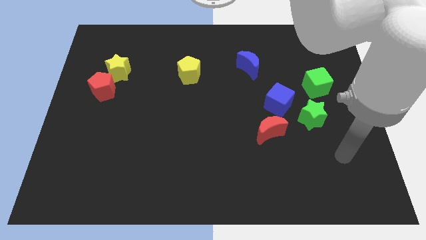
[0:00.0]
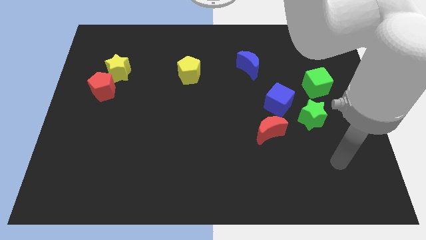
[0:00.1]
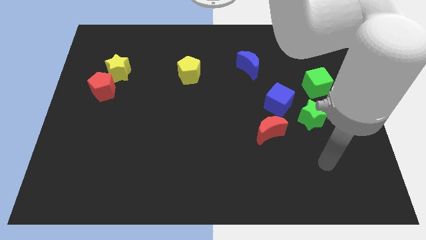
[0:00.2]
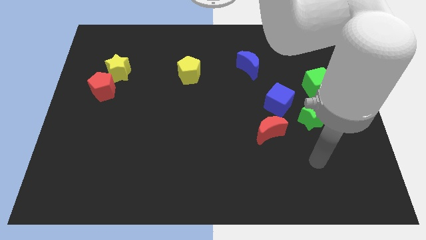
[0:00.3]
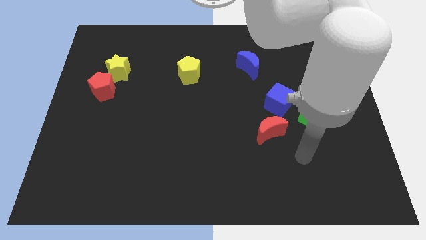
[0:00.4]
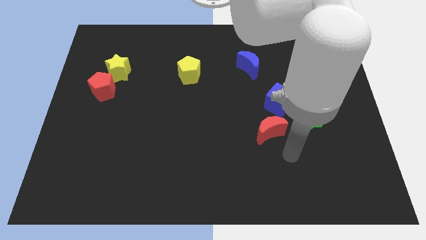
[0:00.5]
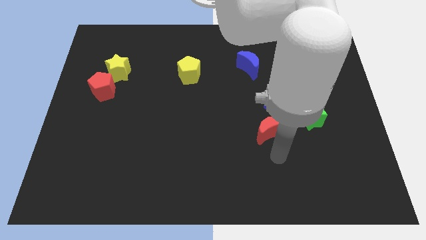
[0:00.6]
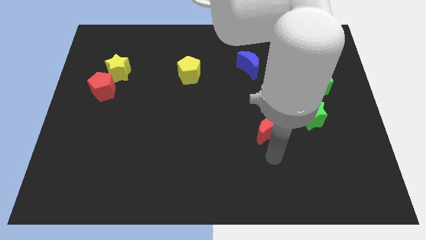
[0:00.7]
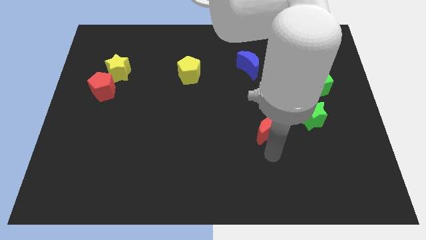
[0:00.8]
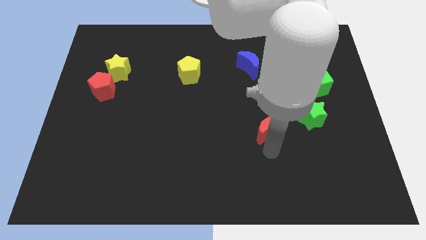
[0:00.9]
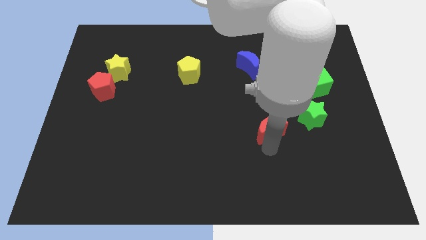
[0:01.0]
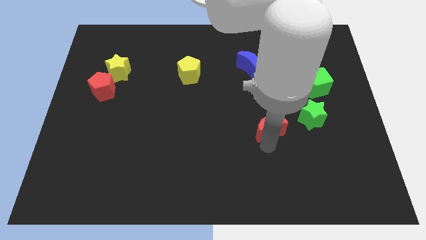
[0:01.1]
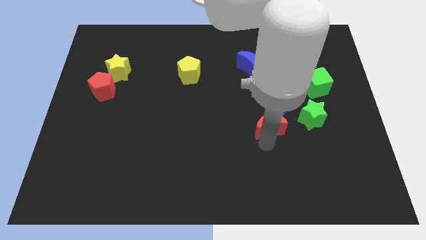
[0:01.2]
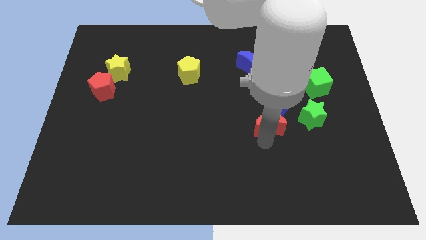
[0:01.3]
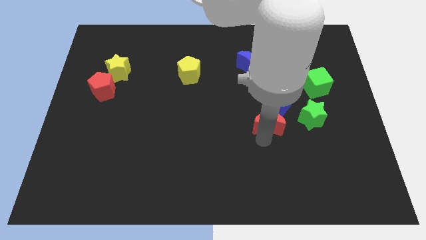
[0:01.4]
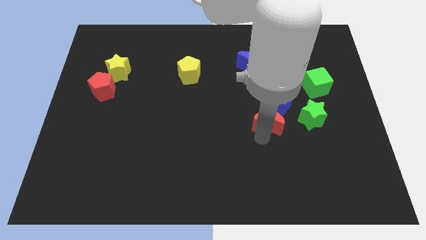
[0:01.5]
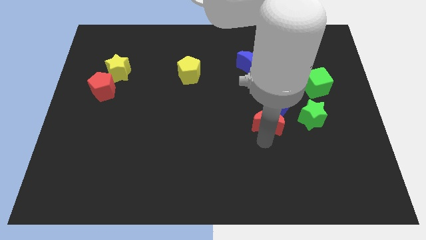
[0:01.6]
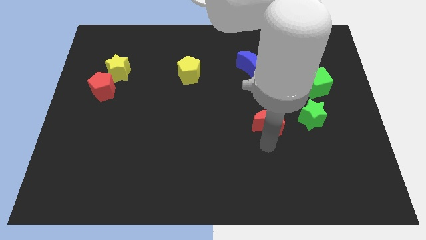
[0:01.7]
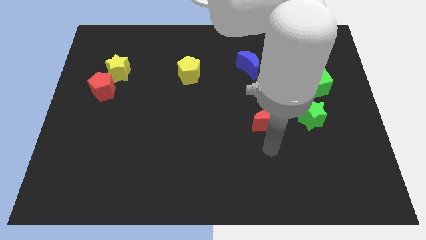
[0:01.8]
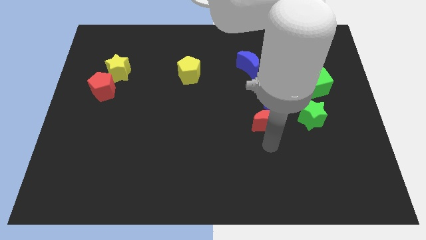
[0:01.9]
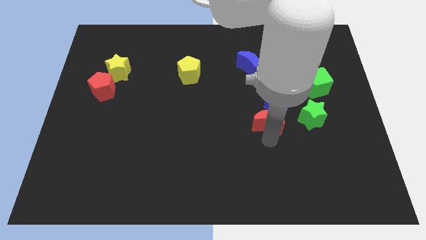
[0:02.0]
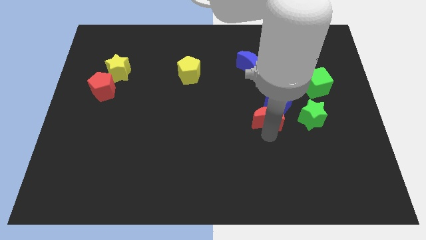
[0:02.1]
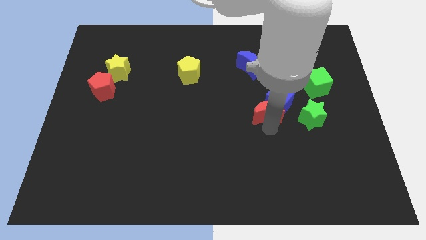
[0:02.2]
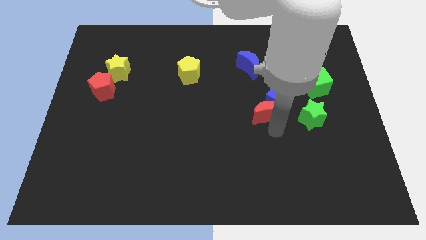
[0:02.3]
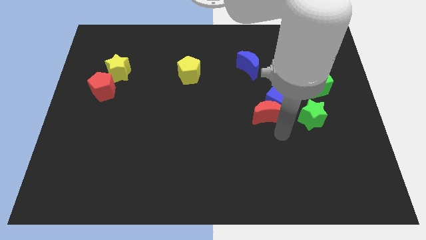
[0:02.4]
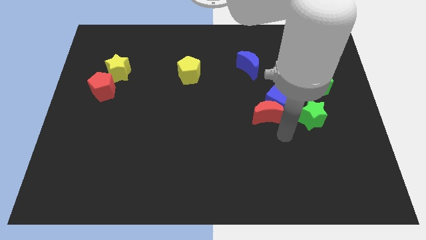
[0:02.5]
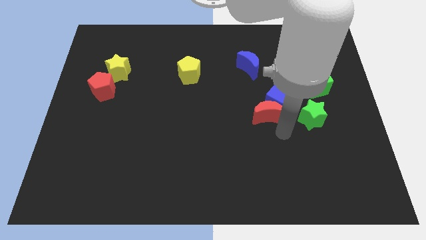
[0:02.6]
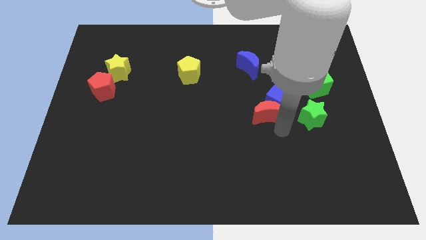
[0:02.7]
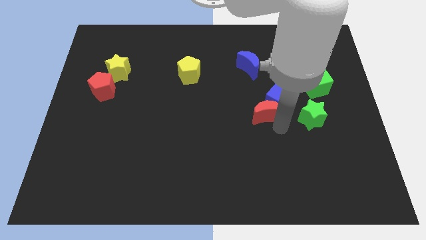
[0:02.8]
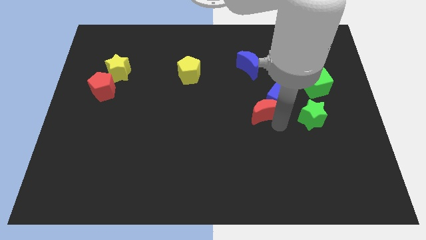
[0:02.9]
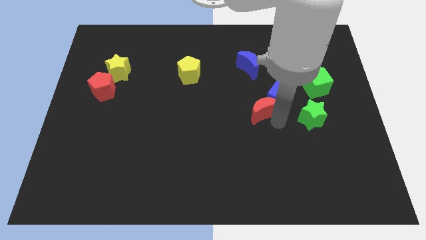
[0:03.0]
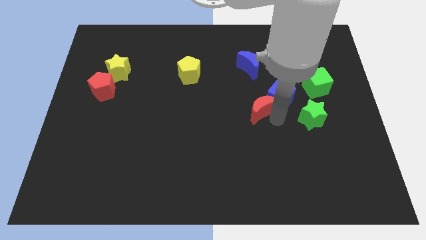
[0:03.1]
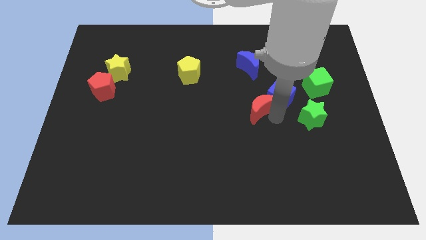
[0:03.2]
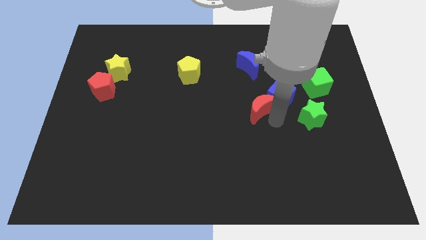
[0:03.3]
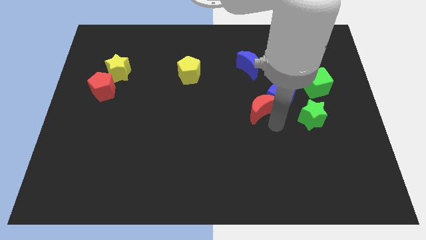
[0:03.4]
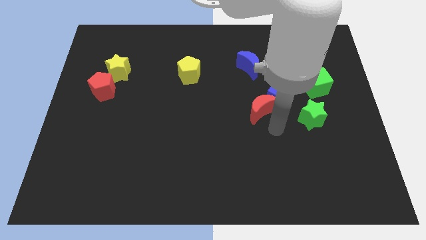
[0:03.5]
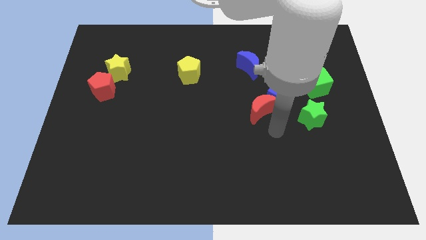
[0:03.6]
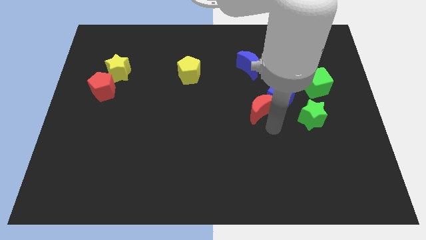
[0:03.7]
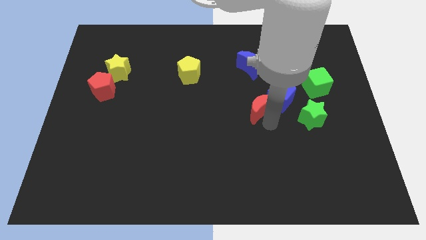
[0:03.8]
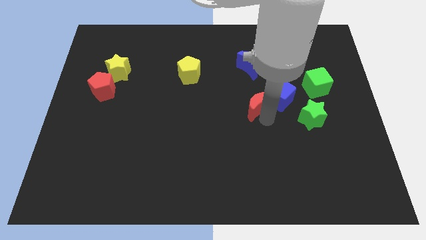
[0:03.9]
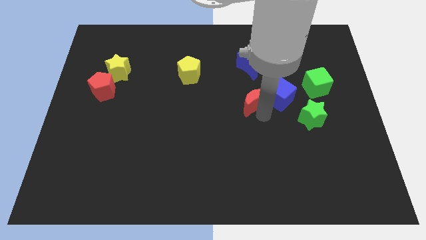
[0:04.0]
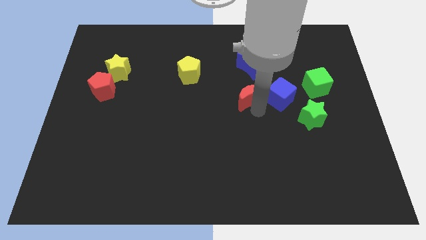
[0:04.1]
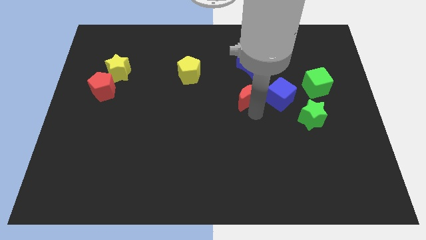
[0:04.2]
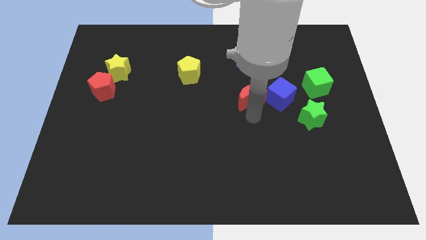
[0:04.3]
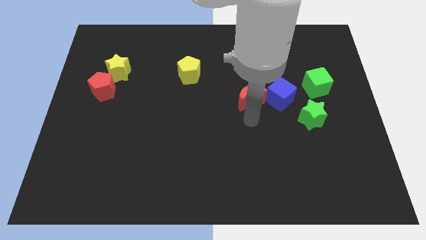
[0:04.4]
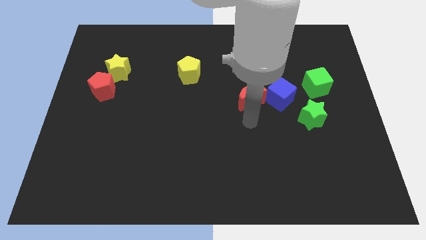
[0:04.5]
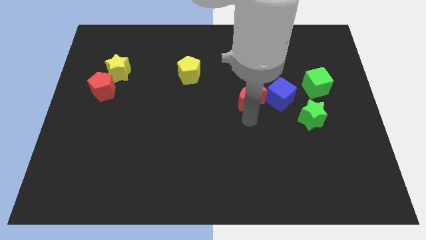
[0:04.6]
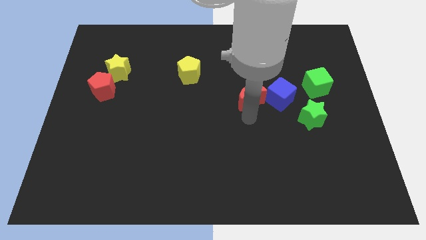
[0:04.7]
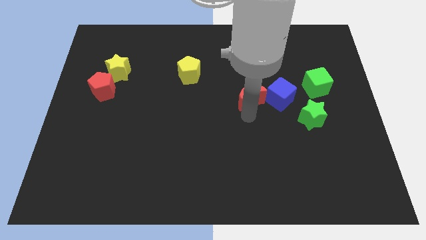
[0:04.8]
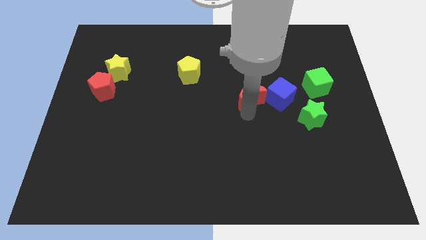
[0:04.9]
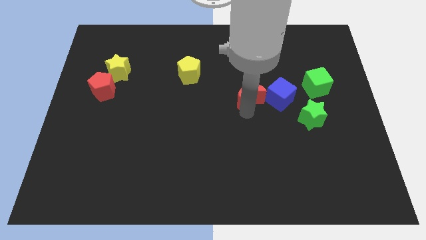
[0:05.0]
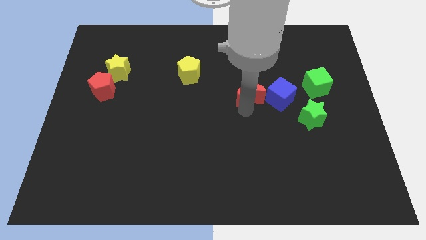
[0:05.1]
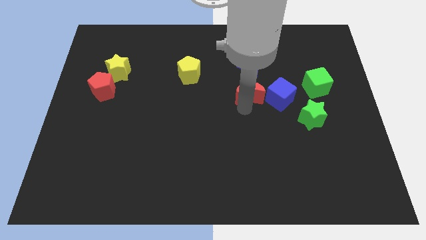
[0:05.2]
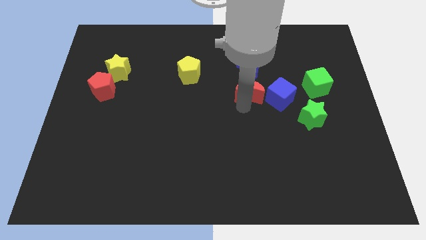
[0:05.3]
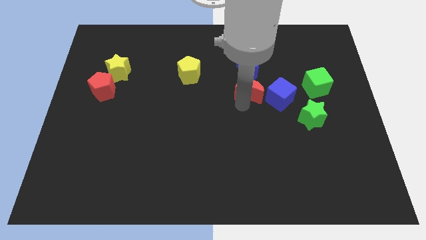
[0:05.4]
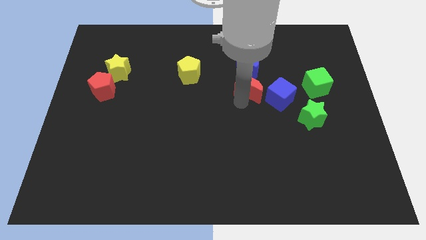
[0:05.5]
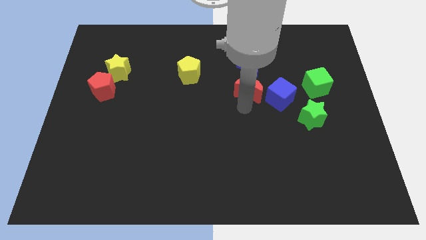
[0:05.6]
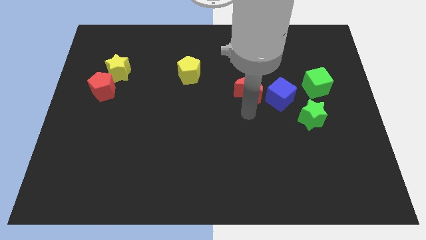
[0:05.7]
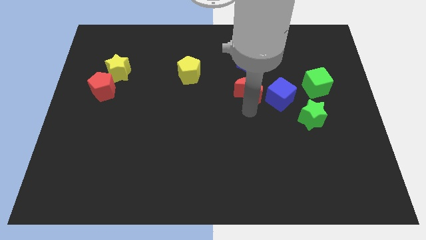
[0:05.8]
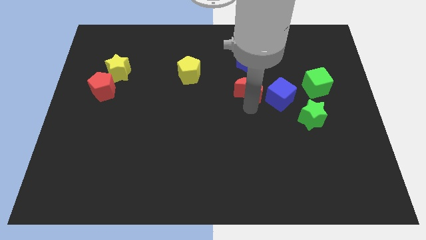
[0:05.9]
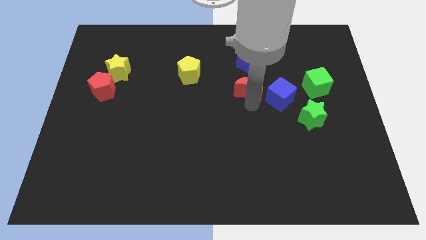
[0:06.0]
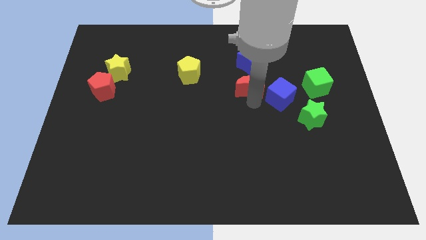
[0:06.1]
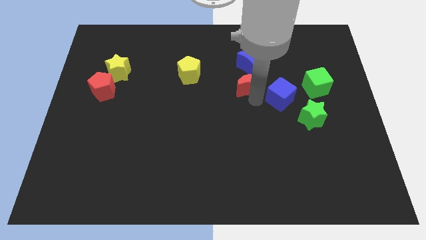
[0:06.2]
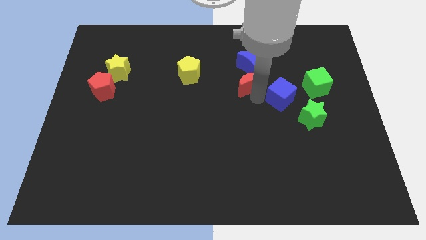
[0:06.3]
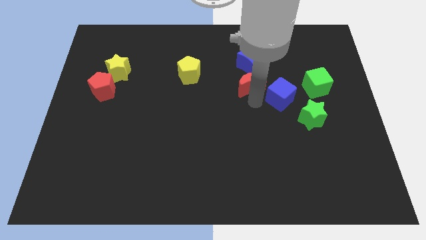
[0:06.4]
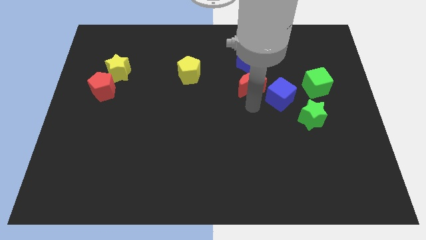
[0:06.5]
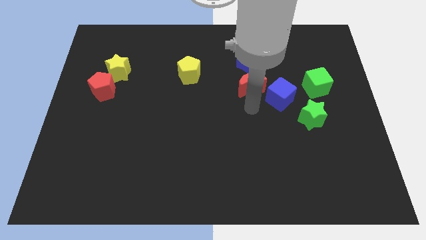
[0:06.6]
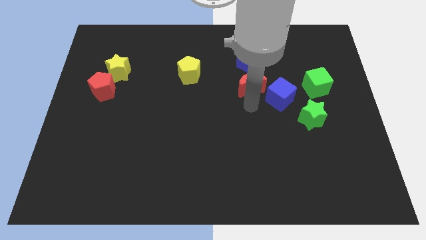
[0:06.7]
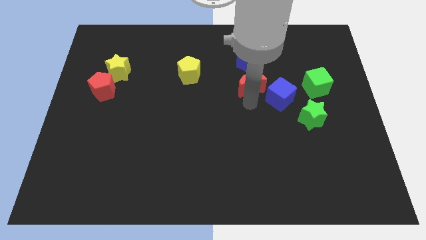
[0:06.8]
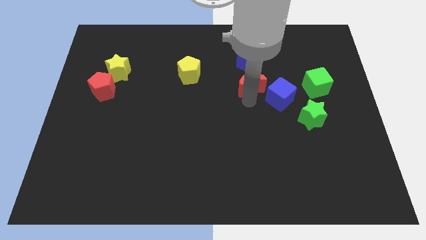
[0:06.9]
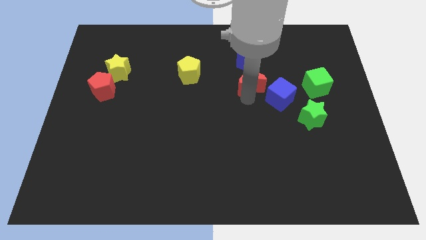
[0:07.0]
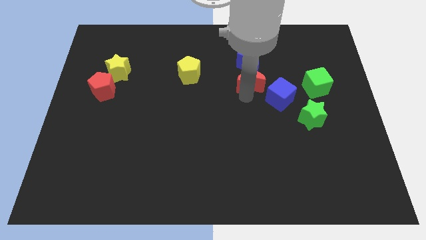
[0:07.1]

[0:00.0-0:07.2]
slide the red moon close to the blue moon
